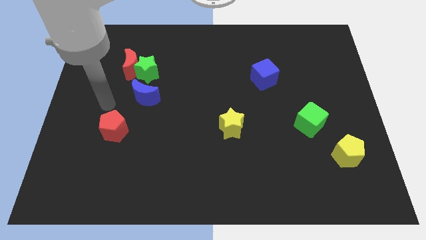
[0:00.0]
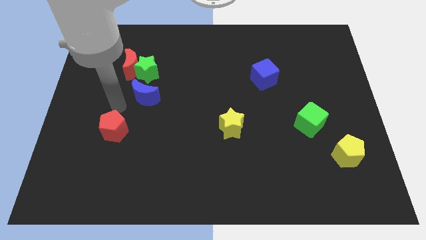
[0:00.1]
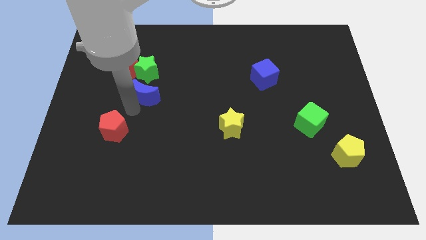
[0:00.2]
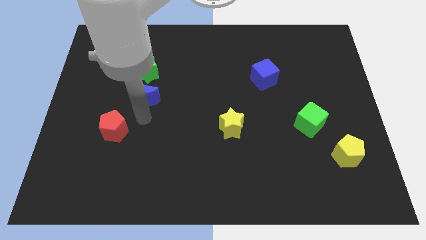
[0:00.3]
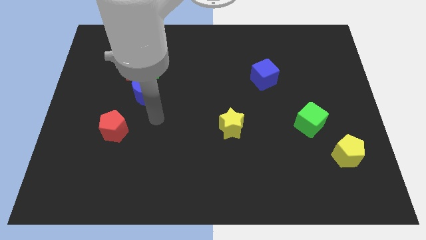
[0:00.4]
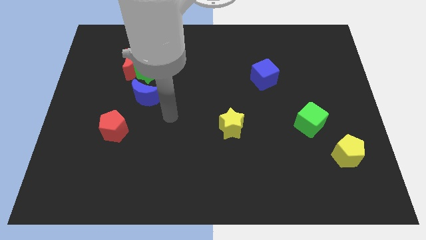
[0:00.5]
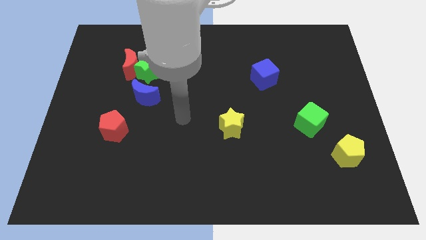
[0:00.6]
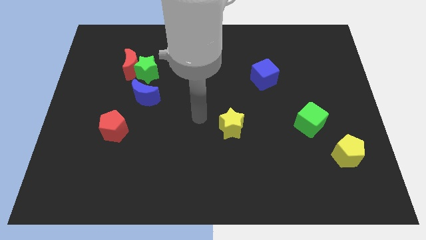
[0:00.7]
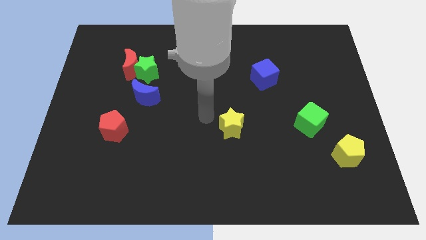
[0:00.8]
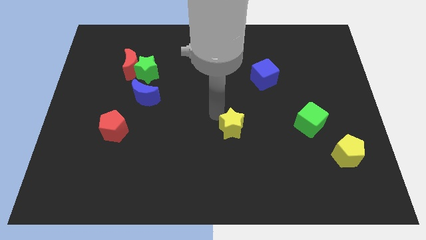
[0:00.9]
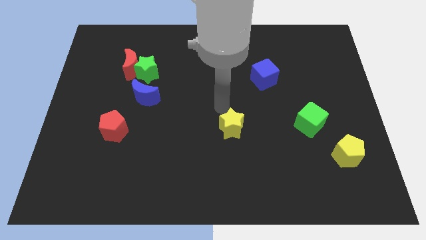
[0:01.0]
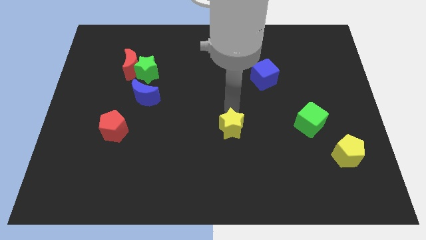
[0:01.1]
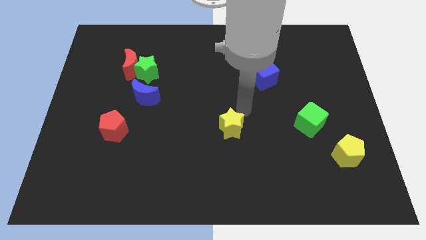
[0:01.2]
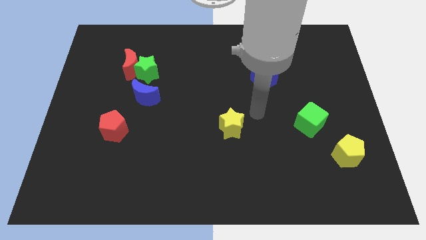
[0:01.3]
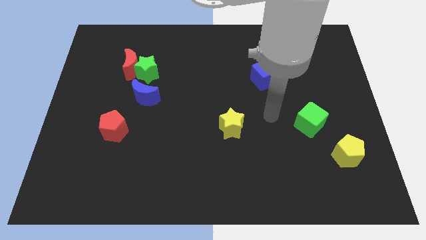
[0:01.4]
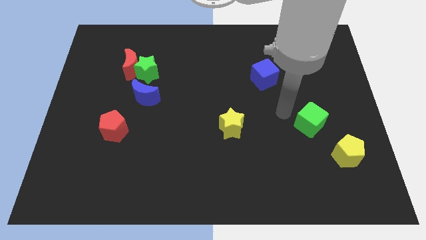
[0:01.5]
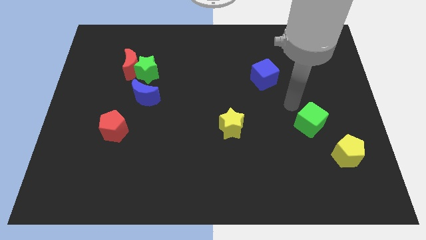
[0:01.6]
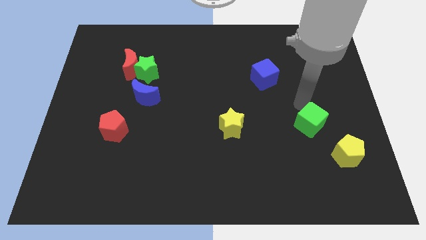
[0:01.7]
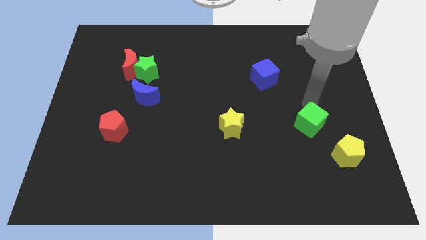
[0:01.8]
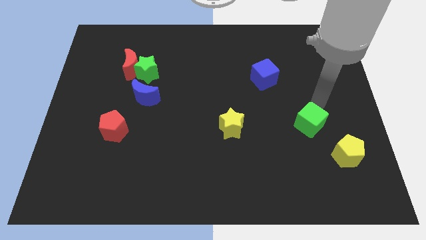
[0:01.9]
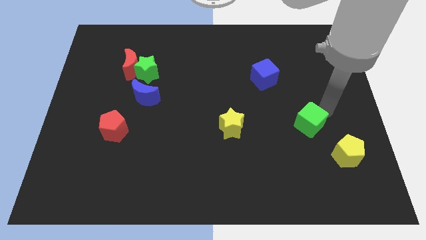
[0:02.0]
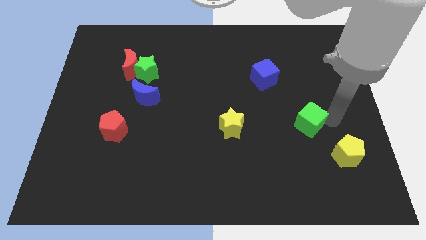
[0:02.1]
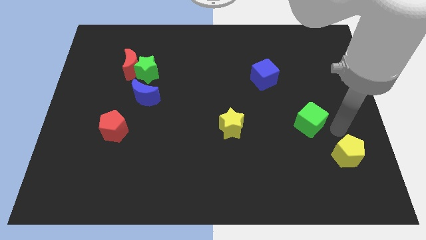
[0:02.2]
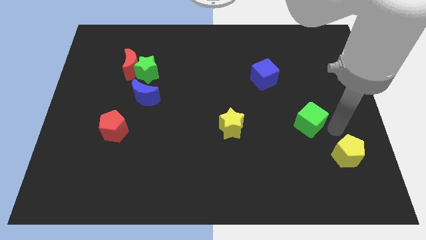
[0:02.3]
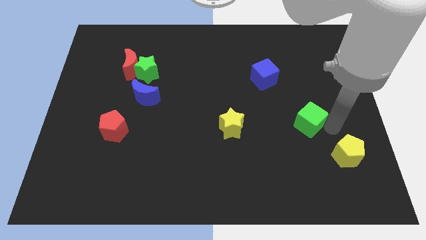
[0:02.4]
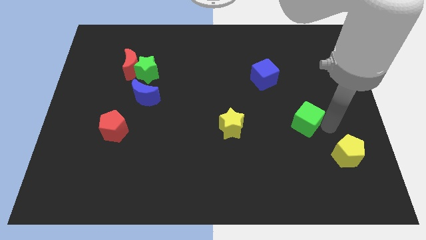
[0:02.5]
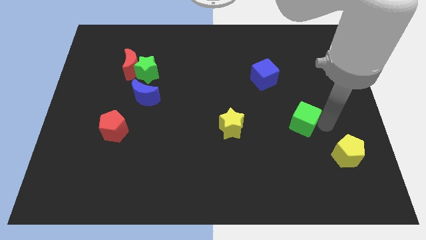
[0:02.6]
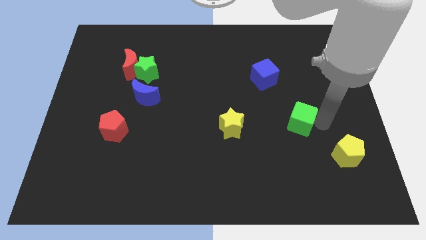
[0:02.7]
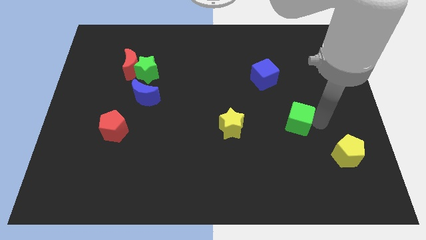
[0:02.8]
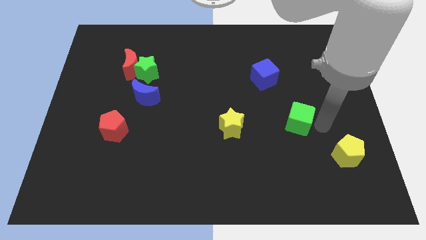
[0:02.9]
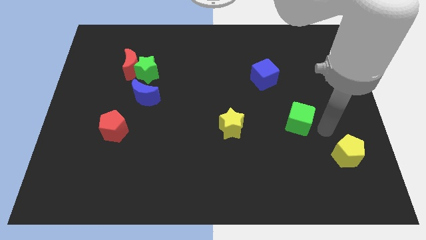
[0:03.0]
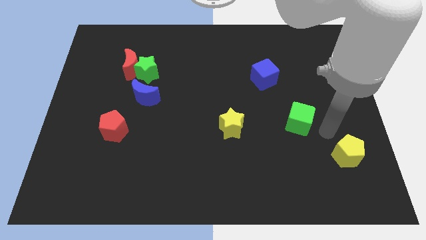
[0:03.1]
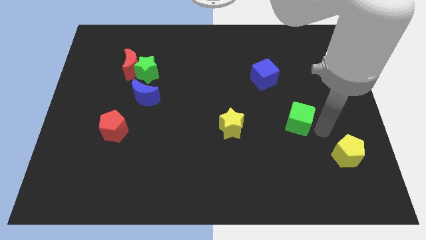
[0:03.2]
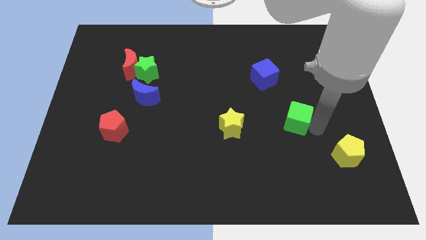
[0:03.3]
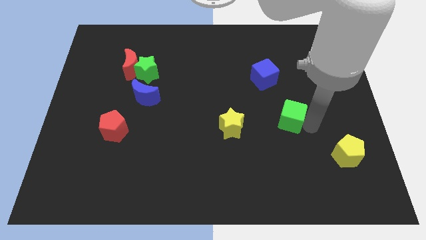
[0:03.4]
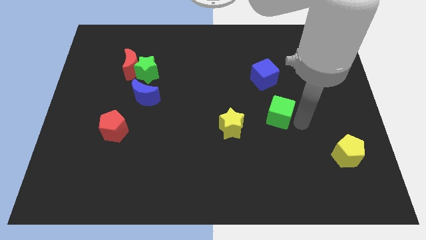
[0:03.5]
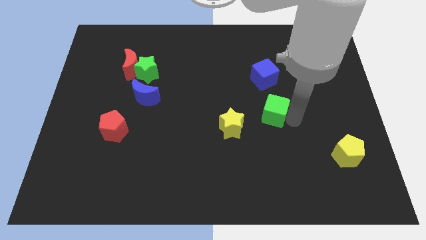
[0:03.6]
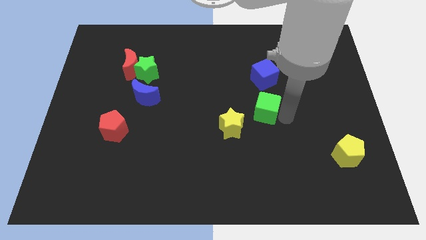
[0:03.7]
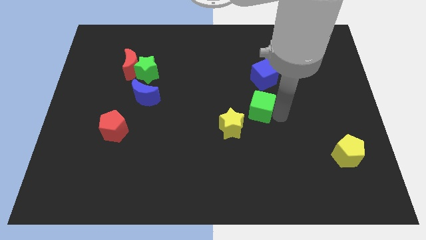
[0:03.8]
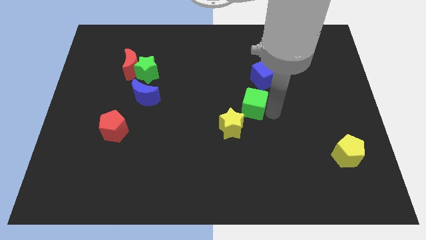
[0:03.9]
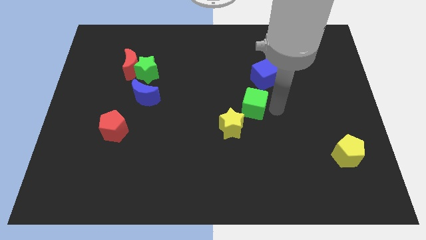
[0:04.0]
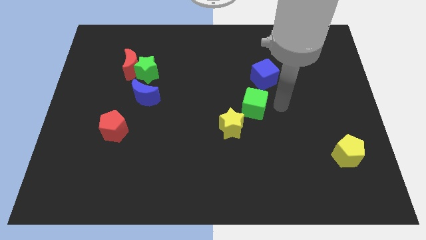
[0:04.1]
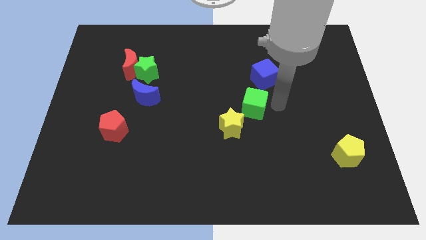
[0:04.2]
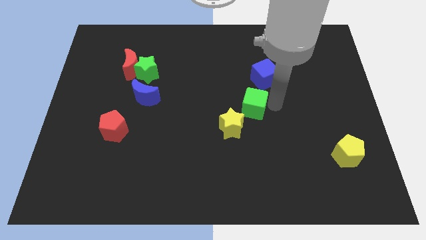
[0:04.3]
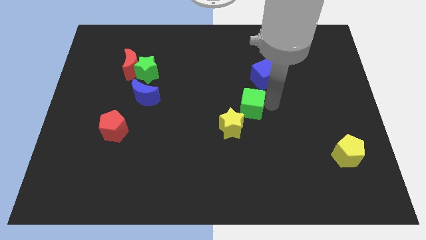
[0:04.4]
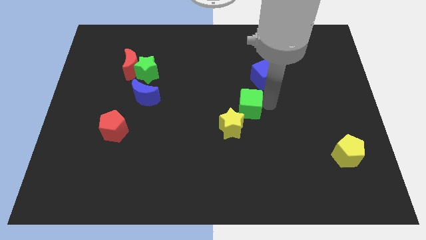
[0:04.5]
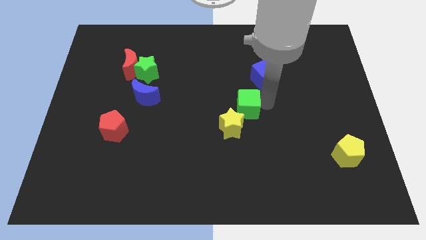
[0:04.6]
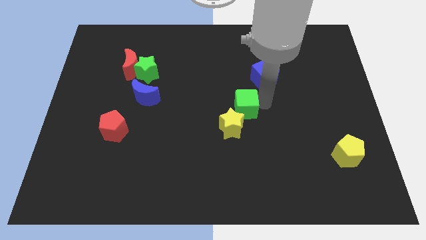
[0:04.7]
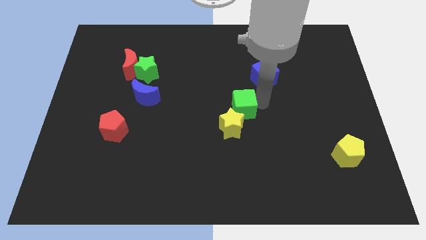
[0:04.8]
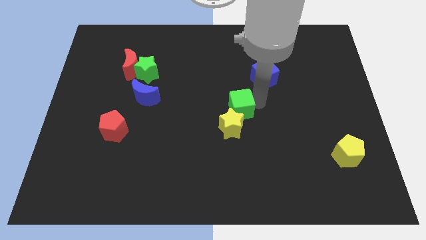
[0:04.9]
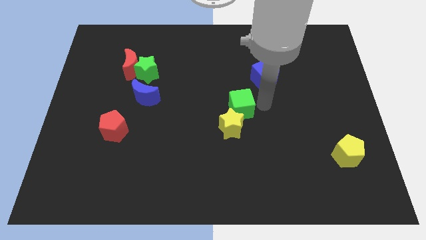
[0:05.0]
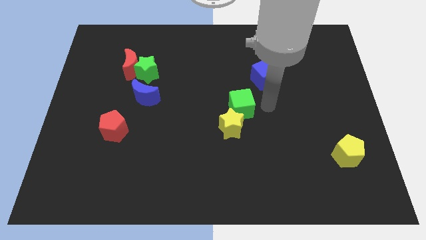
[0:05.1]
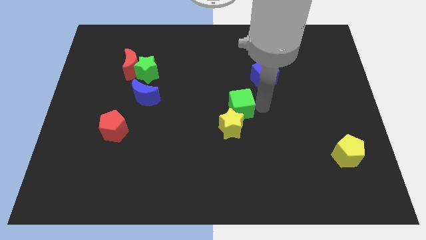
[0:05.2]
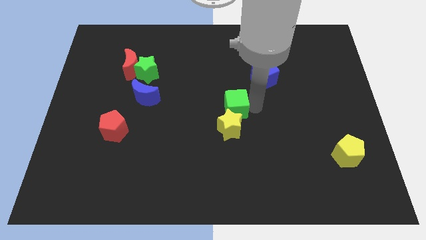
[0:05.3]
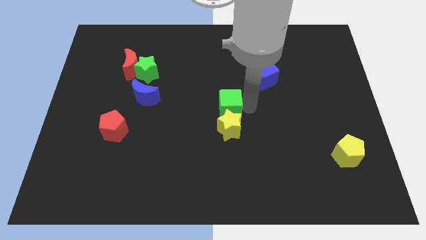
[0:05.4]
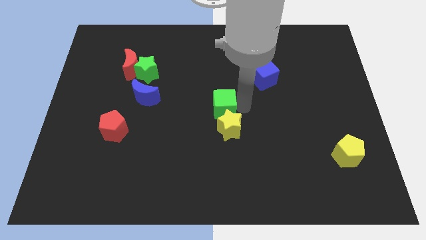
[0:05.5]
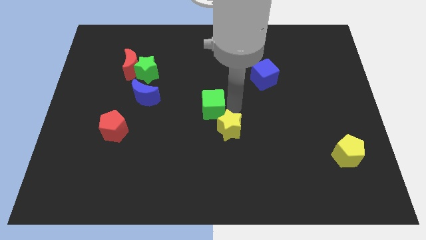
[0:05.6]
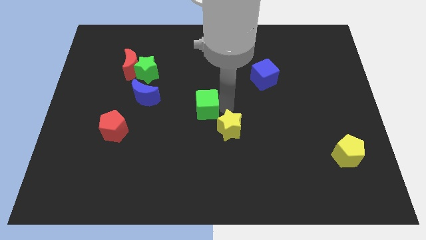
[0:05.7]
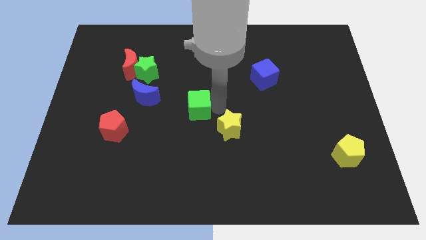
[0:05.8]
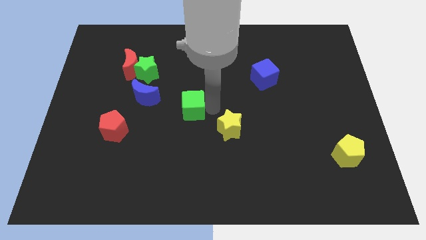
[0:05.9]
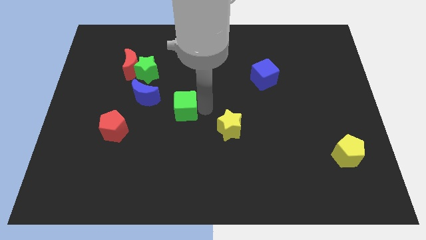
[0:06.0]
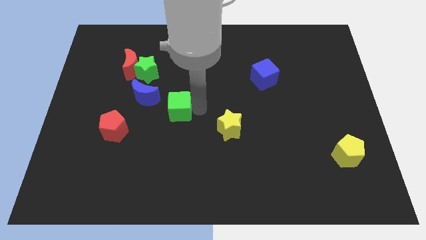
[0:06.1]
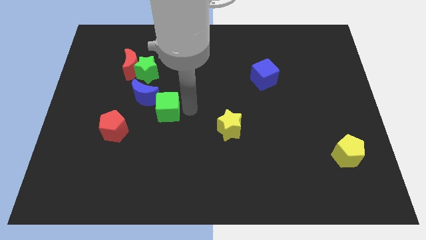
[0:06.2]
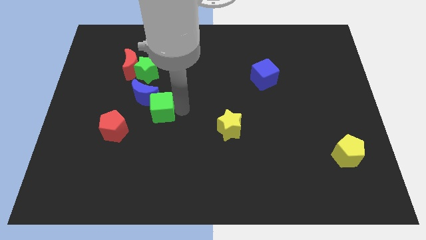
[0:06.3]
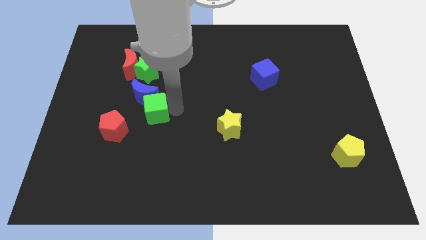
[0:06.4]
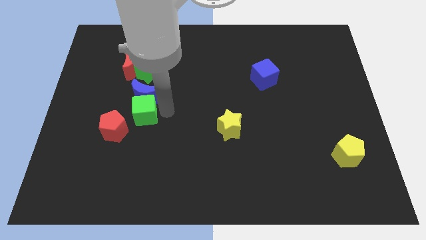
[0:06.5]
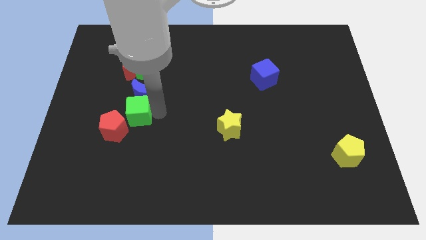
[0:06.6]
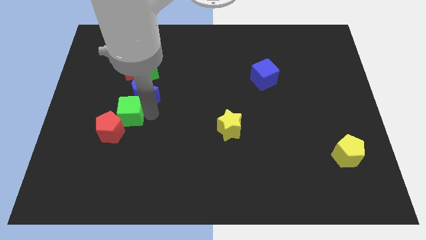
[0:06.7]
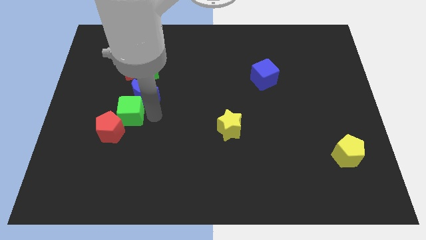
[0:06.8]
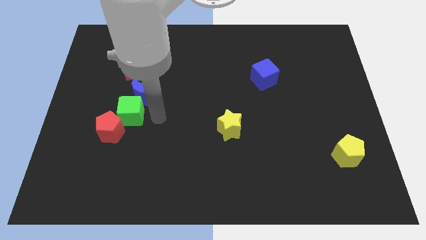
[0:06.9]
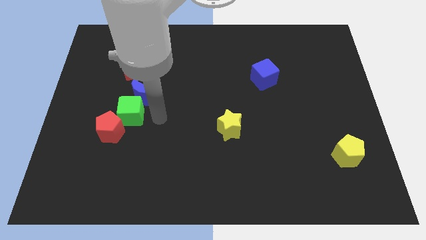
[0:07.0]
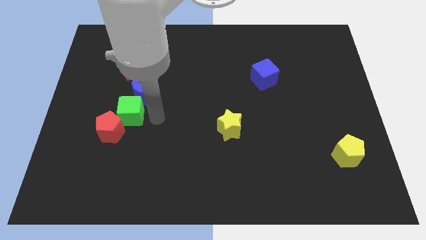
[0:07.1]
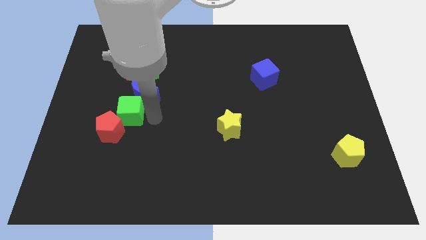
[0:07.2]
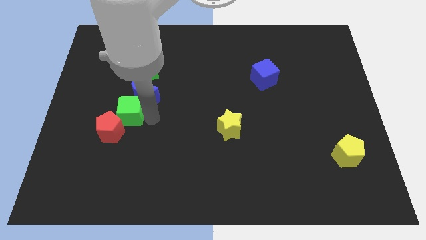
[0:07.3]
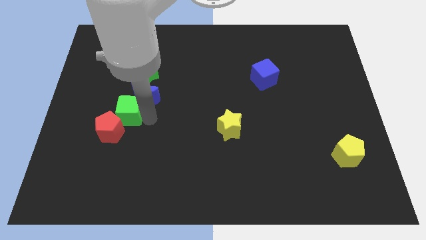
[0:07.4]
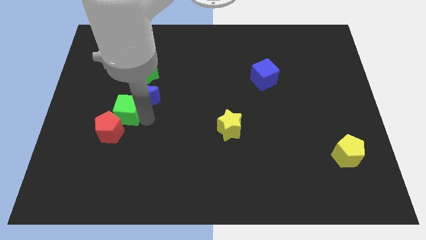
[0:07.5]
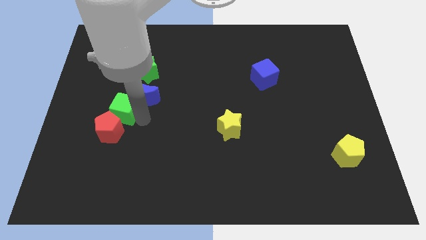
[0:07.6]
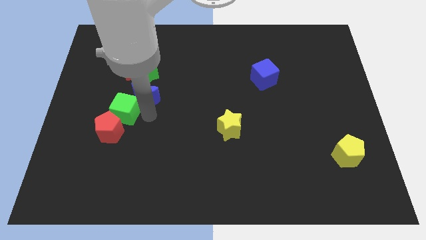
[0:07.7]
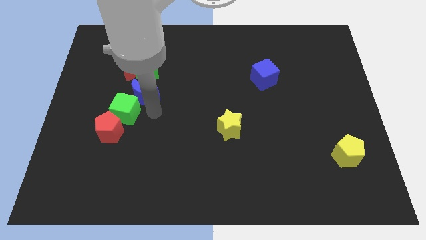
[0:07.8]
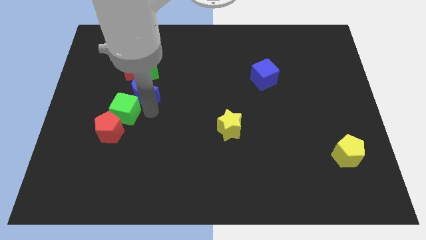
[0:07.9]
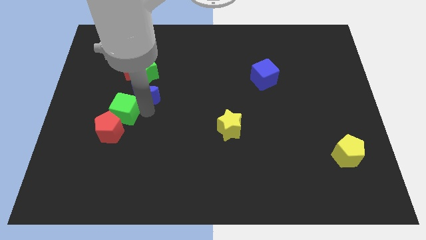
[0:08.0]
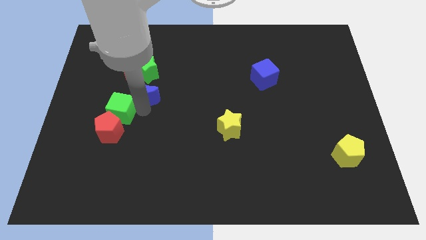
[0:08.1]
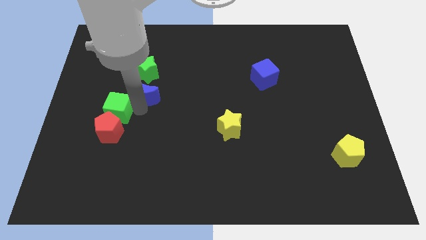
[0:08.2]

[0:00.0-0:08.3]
put the green cube diagonally up and to the left of the red pentagon
